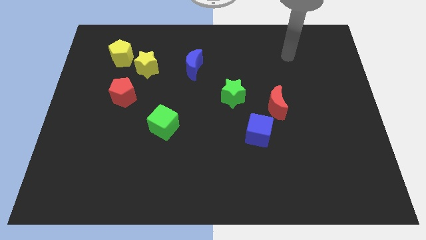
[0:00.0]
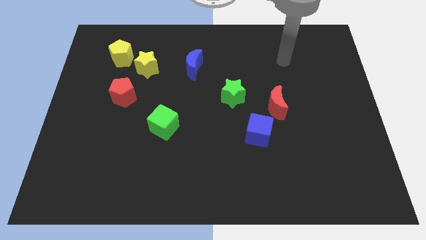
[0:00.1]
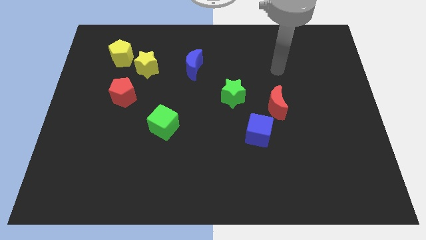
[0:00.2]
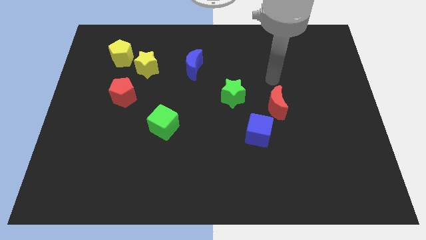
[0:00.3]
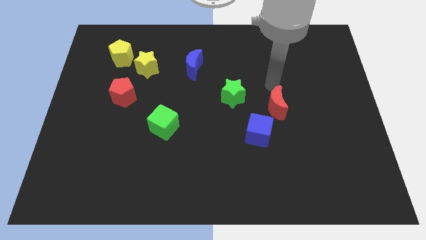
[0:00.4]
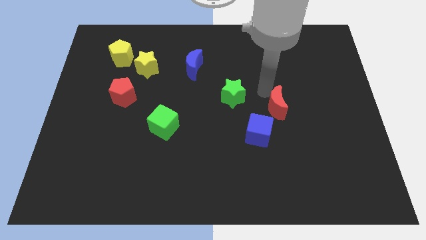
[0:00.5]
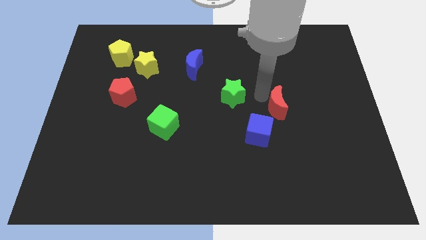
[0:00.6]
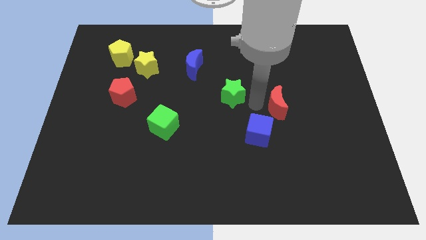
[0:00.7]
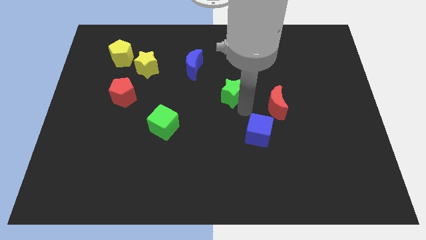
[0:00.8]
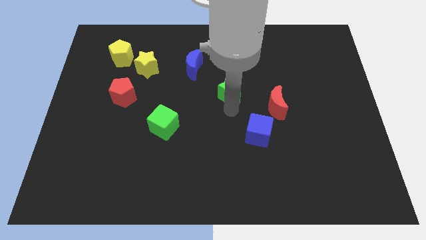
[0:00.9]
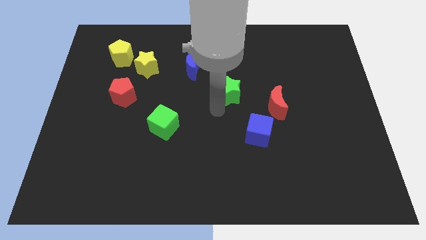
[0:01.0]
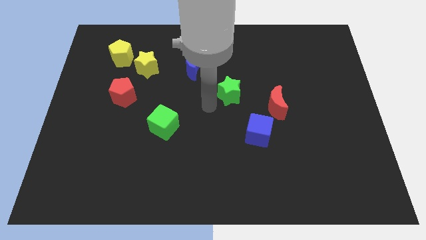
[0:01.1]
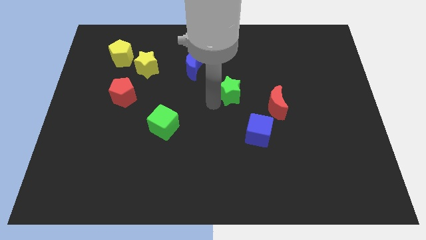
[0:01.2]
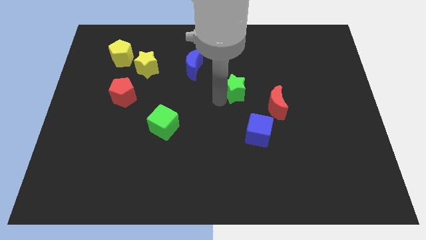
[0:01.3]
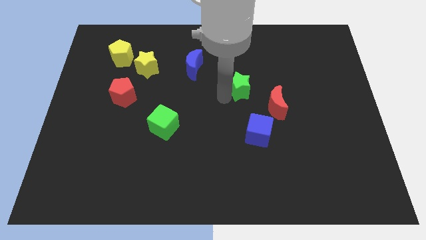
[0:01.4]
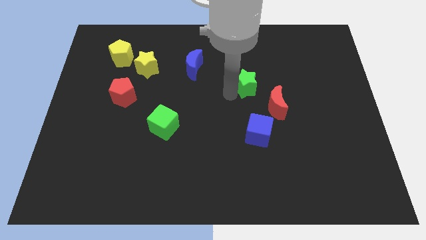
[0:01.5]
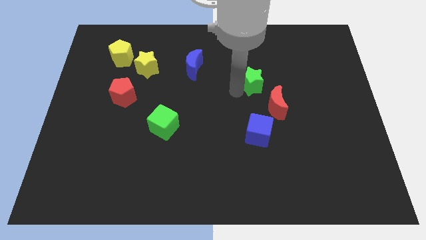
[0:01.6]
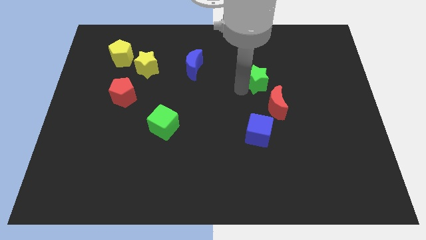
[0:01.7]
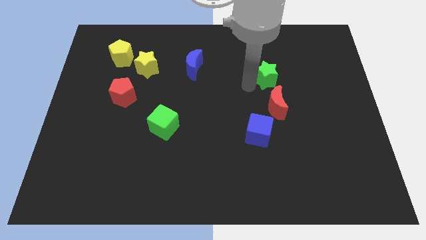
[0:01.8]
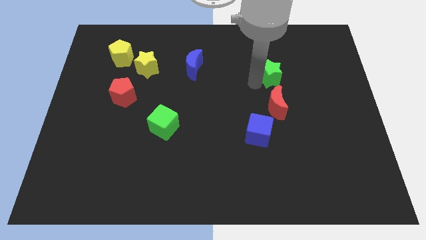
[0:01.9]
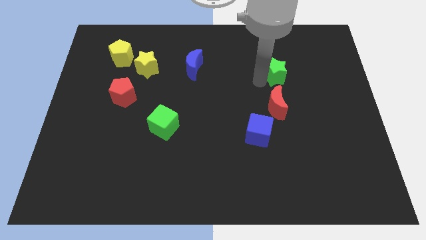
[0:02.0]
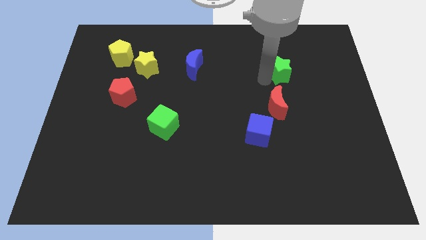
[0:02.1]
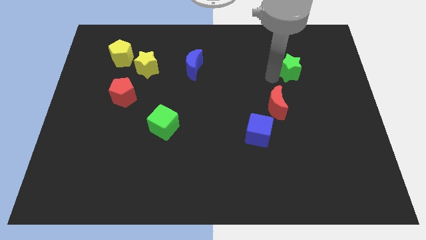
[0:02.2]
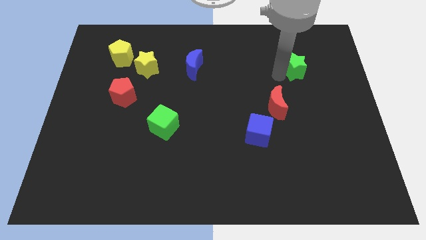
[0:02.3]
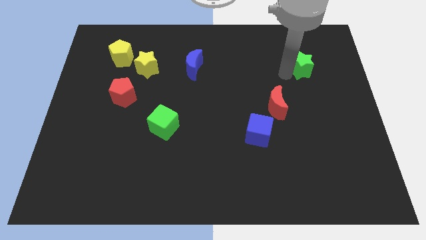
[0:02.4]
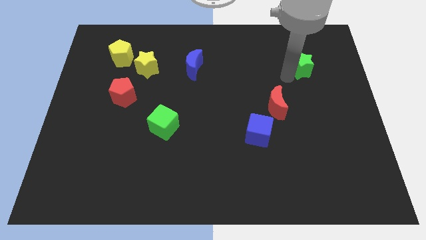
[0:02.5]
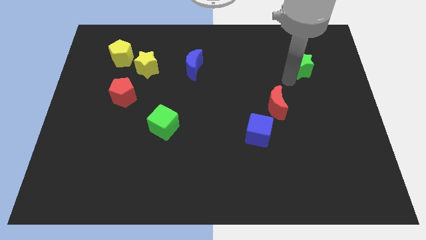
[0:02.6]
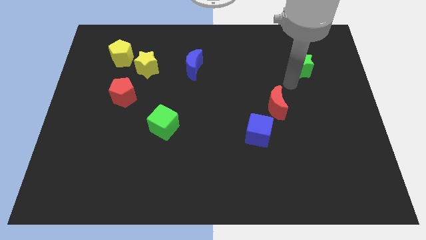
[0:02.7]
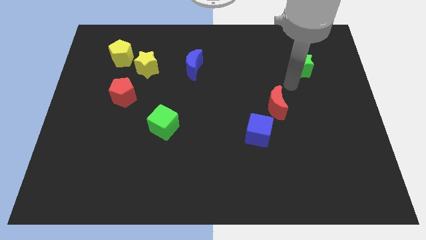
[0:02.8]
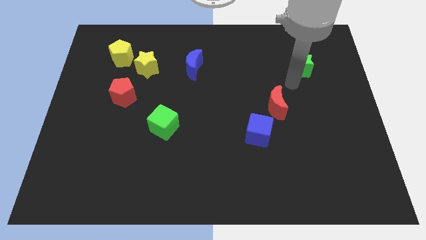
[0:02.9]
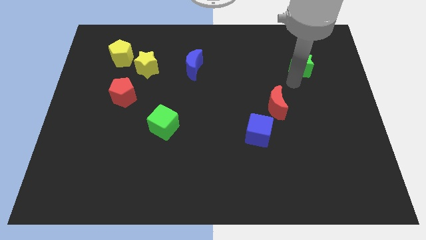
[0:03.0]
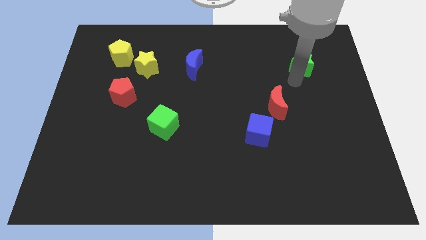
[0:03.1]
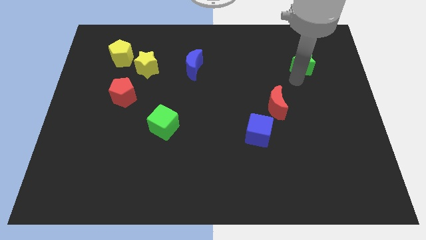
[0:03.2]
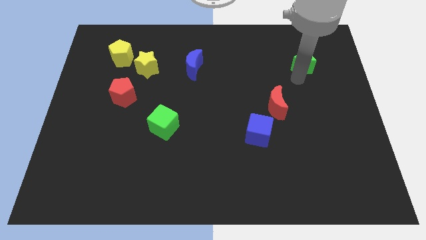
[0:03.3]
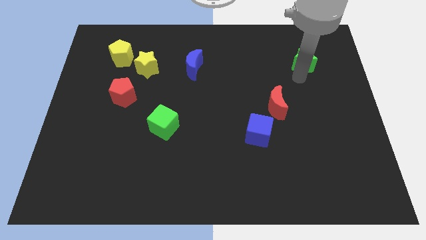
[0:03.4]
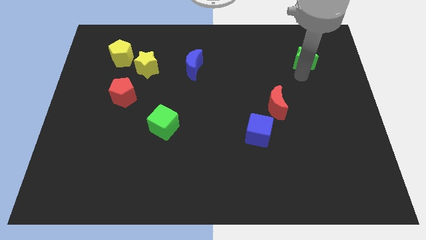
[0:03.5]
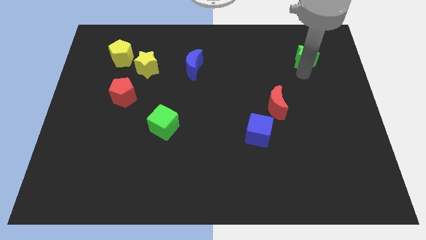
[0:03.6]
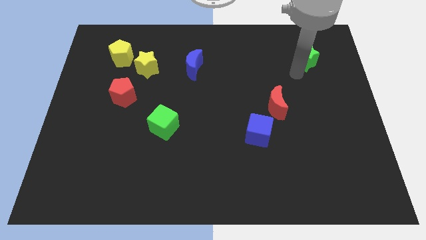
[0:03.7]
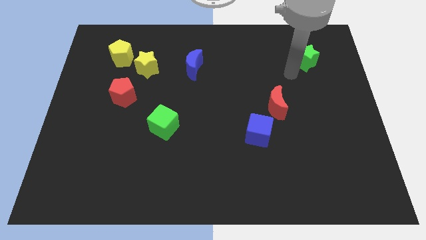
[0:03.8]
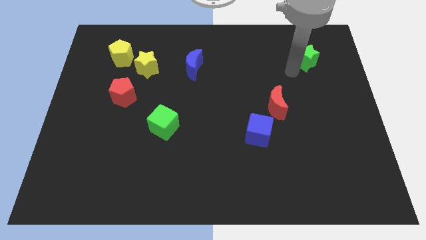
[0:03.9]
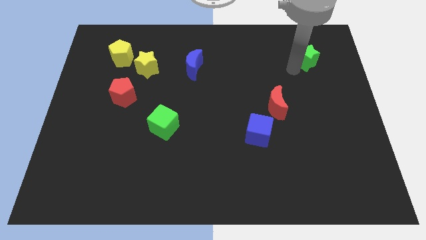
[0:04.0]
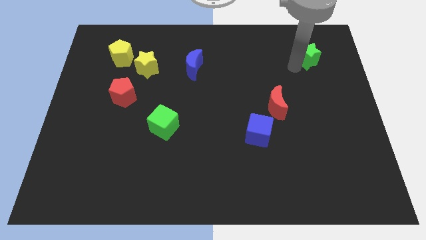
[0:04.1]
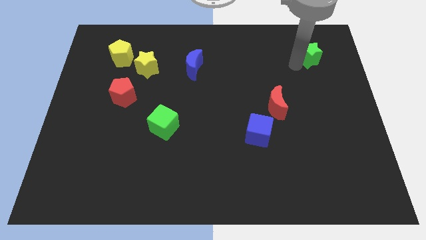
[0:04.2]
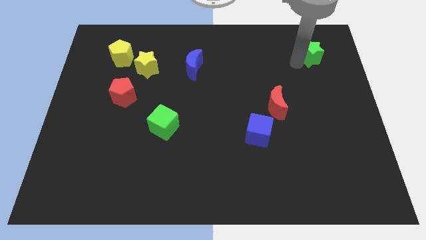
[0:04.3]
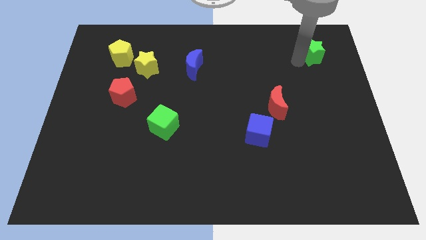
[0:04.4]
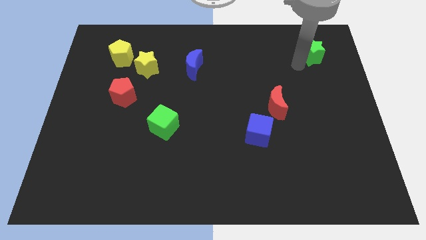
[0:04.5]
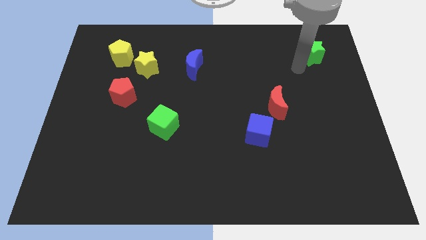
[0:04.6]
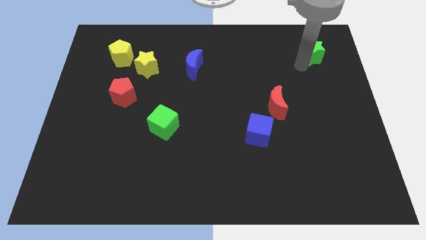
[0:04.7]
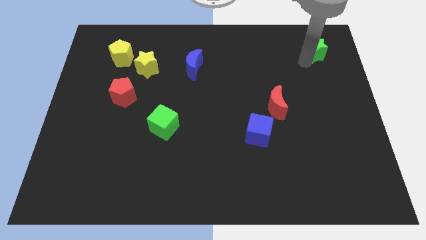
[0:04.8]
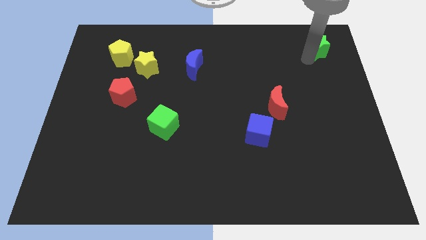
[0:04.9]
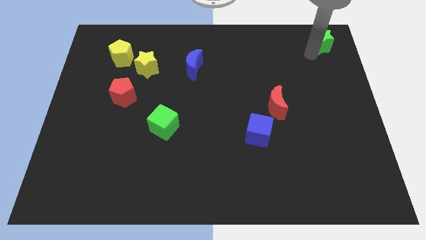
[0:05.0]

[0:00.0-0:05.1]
put the green star to the top right corner

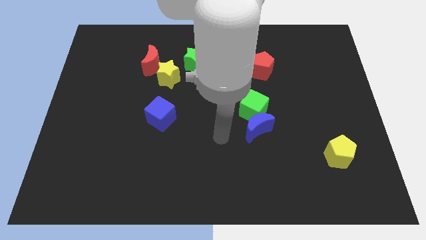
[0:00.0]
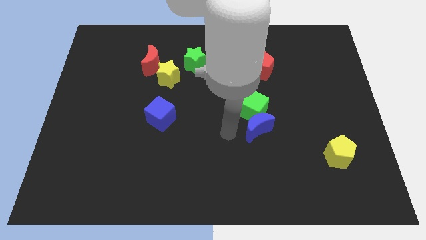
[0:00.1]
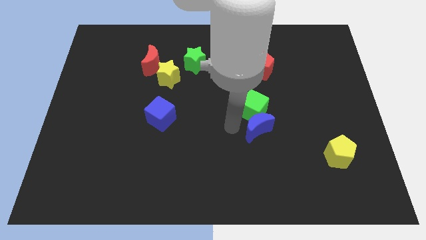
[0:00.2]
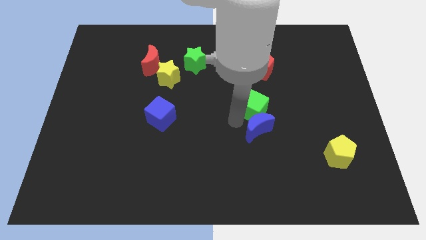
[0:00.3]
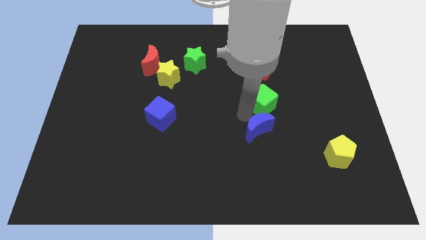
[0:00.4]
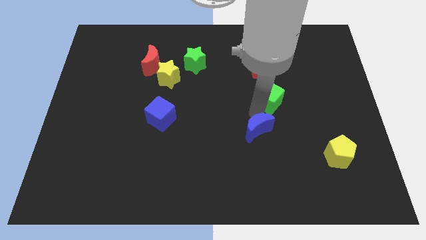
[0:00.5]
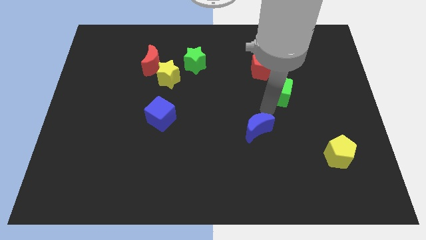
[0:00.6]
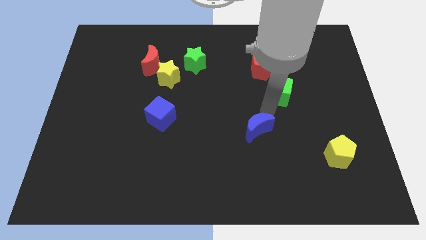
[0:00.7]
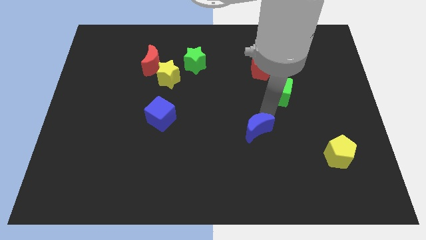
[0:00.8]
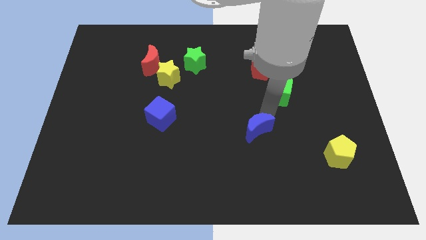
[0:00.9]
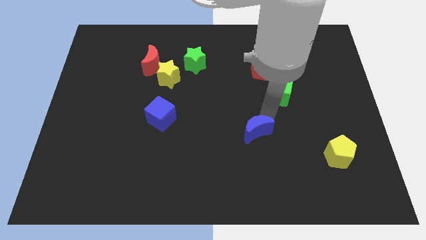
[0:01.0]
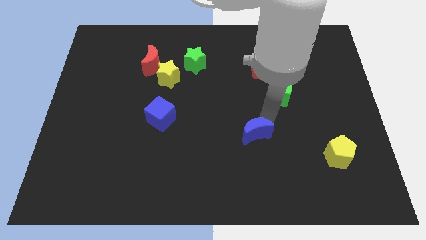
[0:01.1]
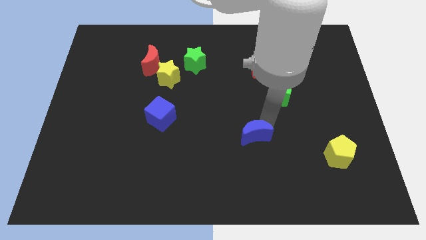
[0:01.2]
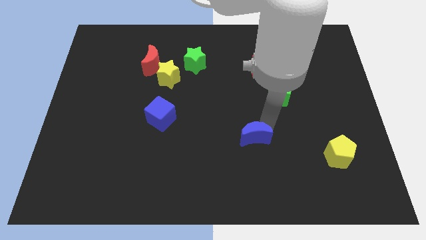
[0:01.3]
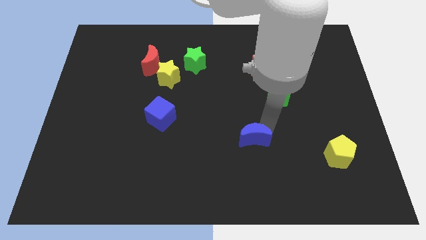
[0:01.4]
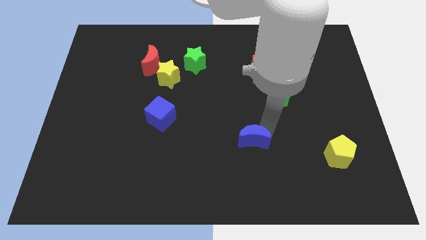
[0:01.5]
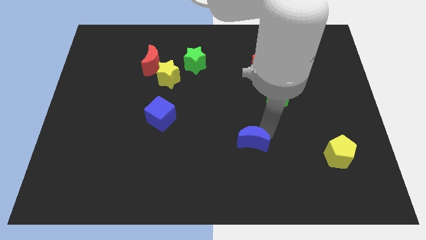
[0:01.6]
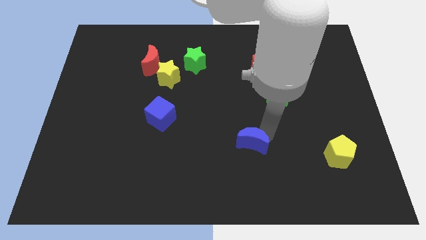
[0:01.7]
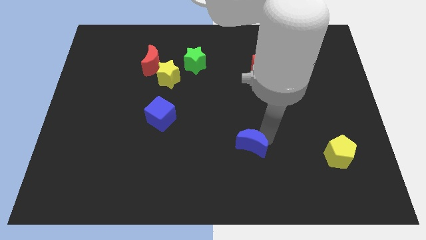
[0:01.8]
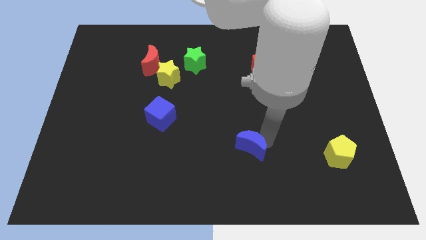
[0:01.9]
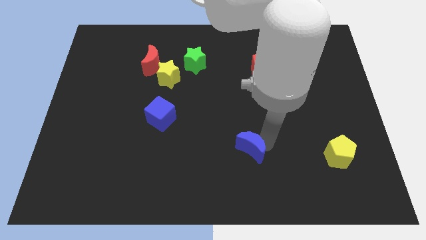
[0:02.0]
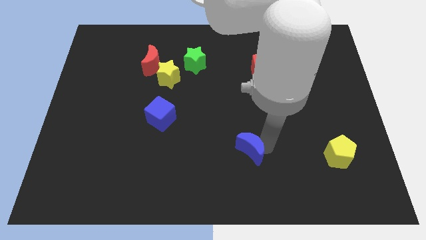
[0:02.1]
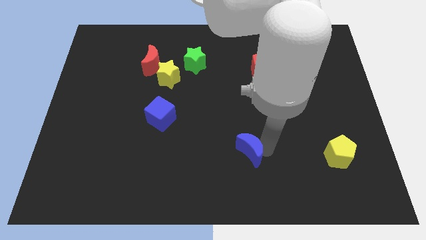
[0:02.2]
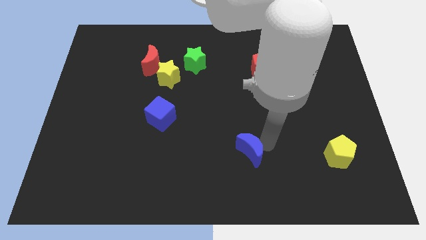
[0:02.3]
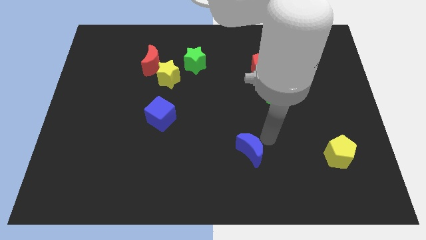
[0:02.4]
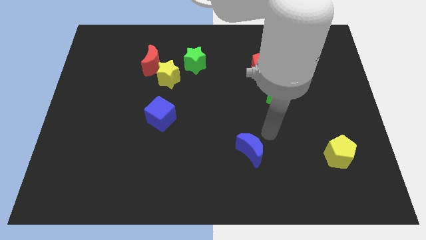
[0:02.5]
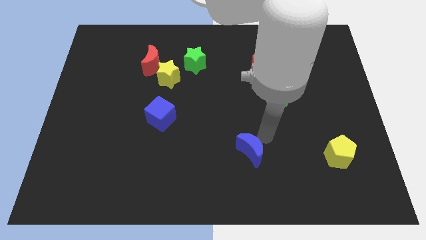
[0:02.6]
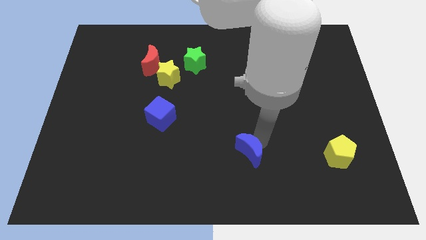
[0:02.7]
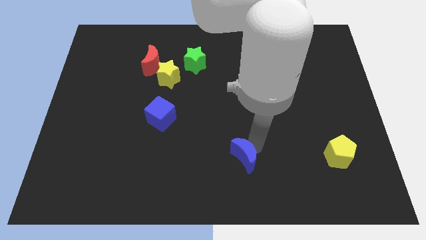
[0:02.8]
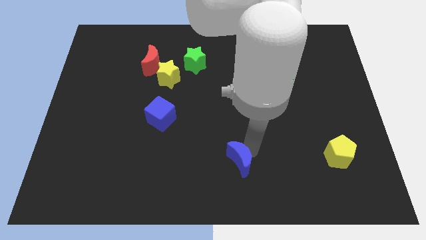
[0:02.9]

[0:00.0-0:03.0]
move the blue moon to the bottom side
